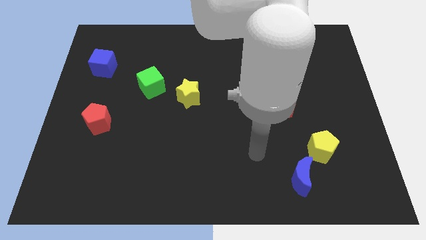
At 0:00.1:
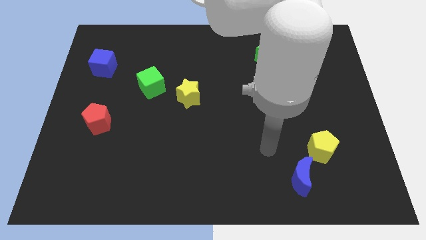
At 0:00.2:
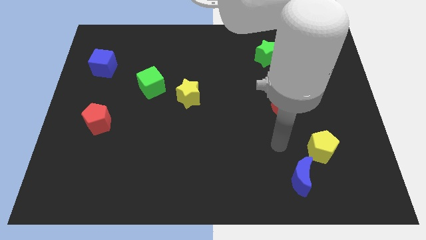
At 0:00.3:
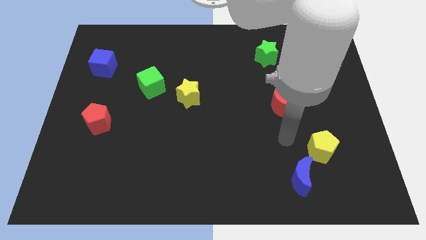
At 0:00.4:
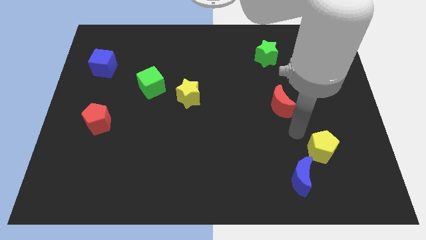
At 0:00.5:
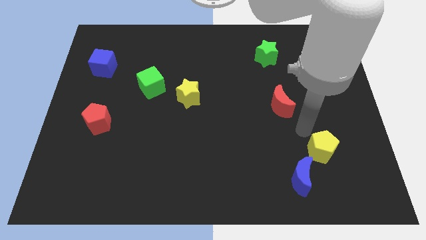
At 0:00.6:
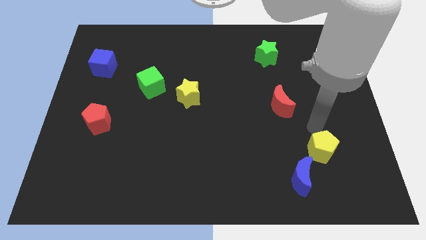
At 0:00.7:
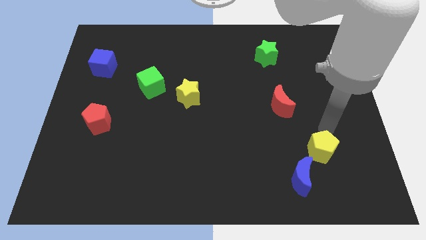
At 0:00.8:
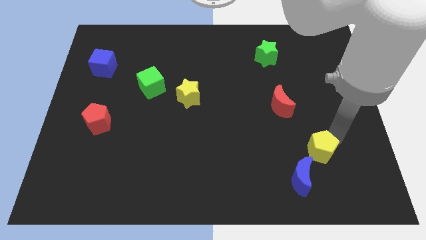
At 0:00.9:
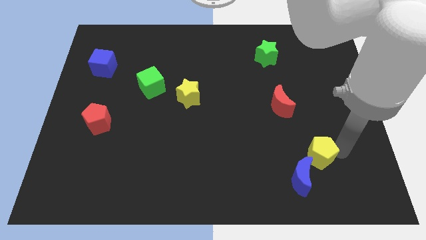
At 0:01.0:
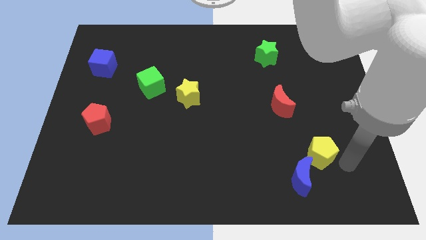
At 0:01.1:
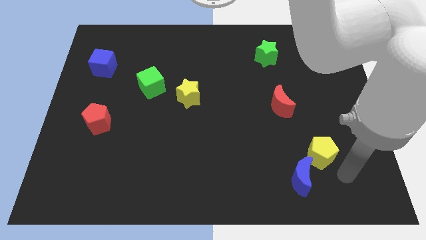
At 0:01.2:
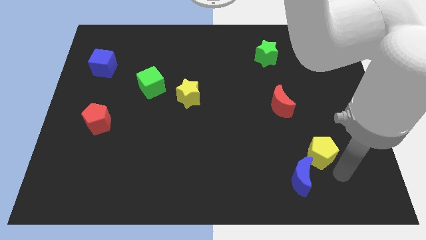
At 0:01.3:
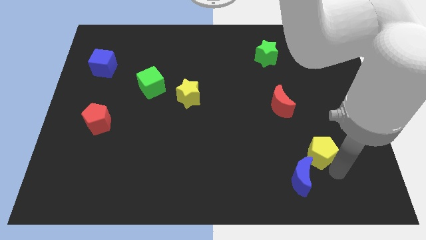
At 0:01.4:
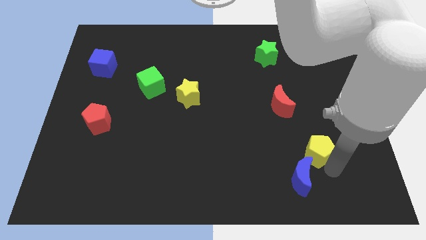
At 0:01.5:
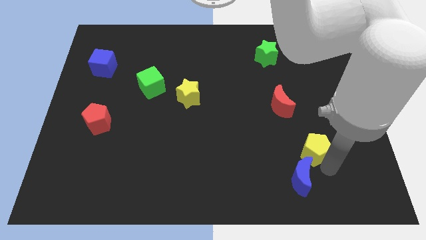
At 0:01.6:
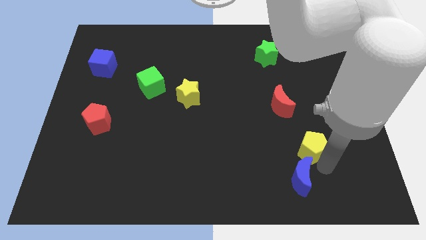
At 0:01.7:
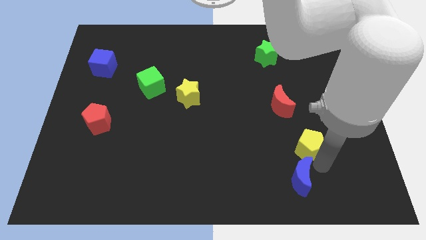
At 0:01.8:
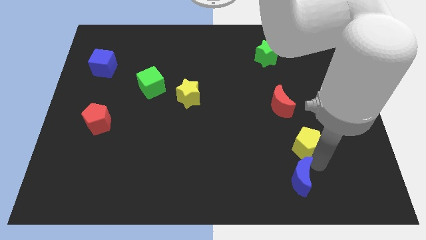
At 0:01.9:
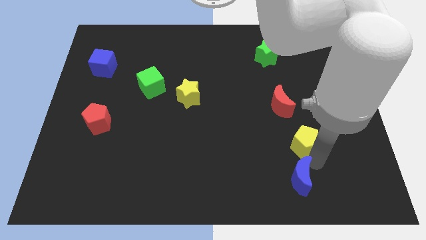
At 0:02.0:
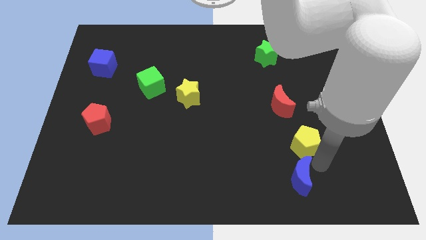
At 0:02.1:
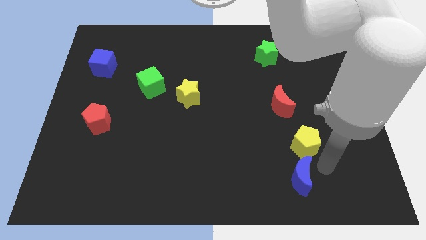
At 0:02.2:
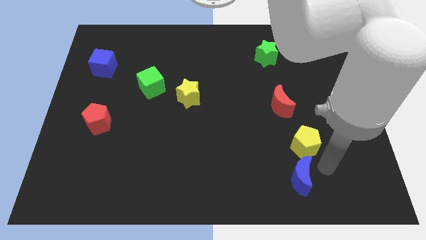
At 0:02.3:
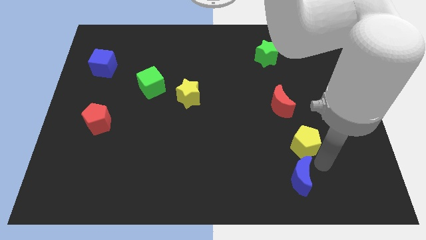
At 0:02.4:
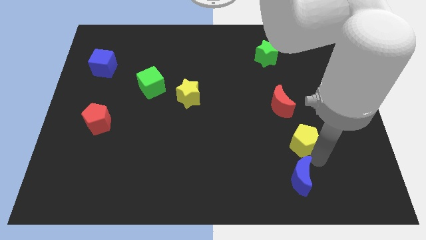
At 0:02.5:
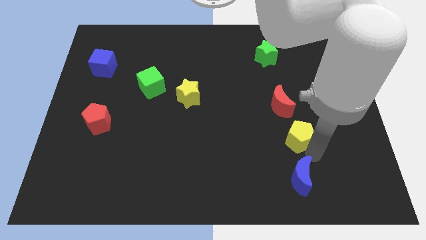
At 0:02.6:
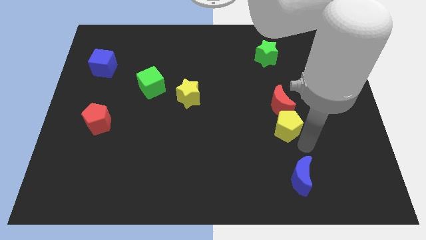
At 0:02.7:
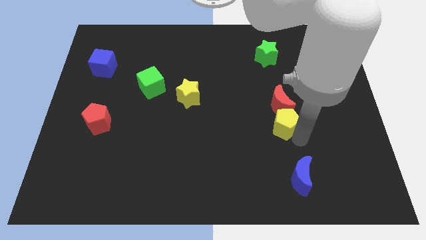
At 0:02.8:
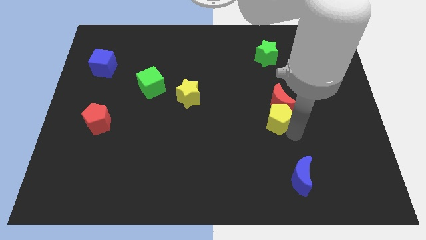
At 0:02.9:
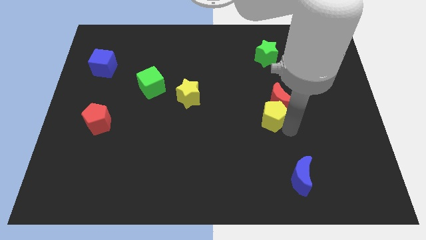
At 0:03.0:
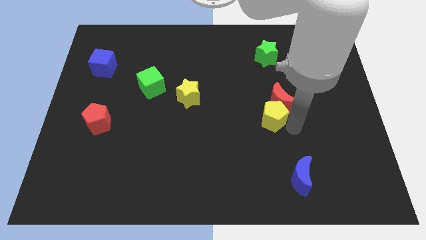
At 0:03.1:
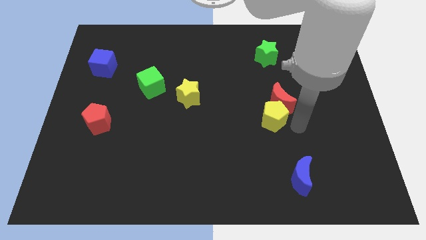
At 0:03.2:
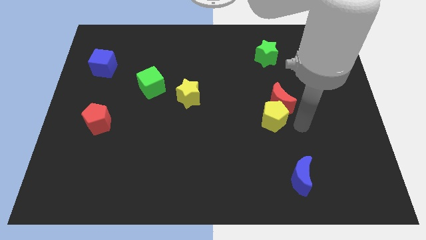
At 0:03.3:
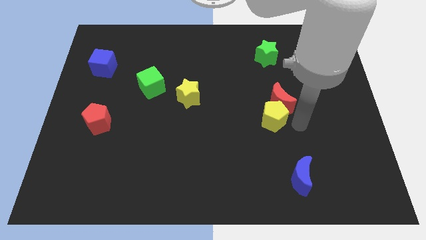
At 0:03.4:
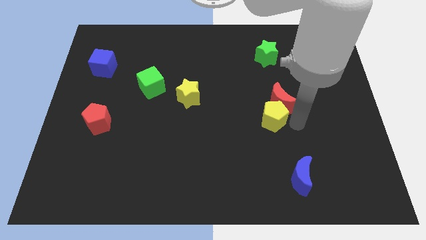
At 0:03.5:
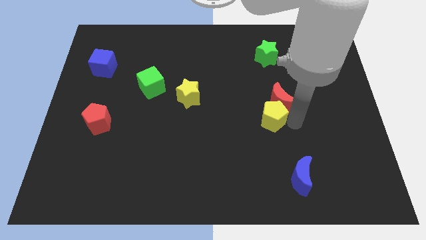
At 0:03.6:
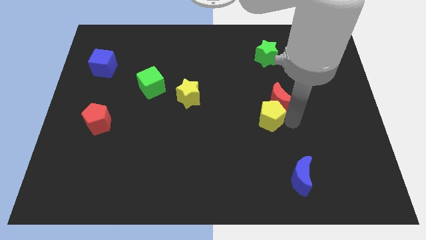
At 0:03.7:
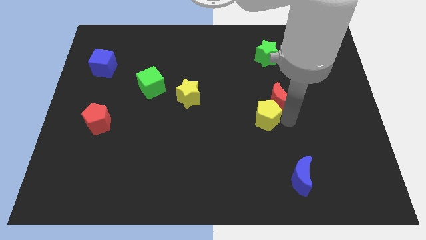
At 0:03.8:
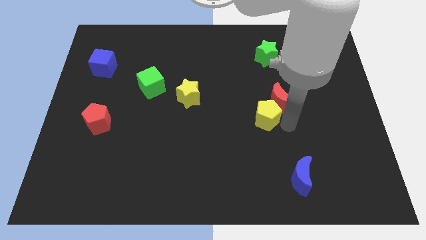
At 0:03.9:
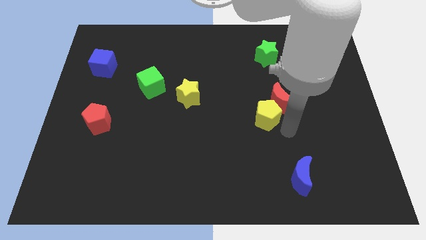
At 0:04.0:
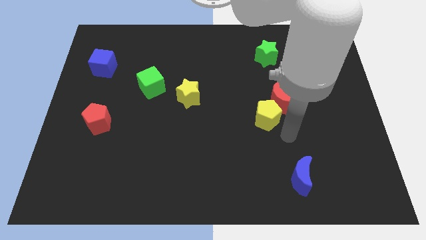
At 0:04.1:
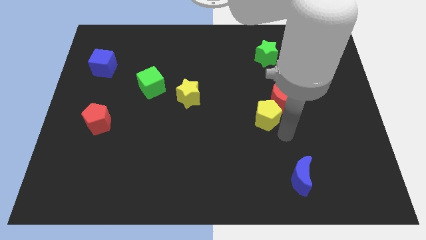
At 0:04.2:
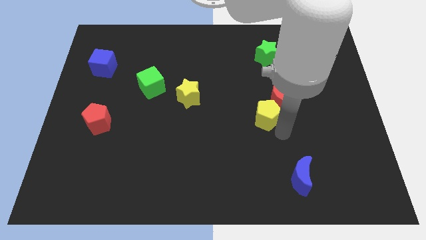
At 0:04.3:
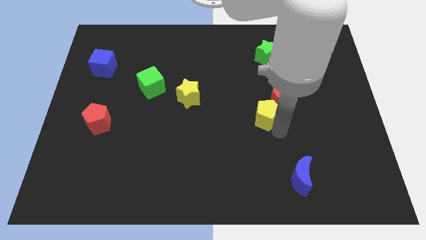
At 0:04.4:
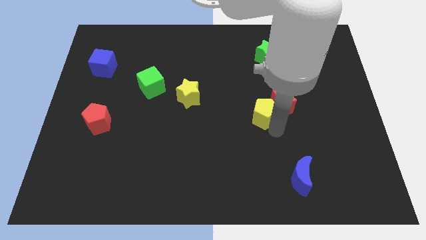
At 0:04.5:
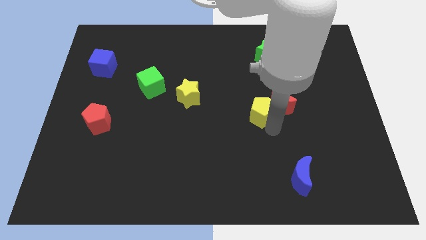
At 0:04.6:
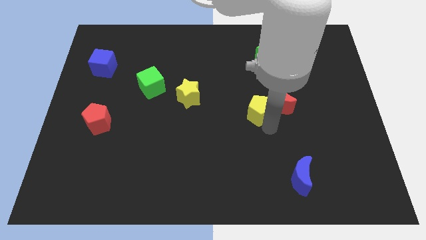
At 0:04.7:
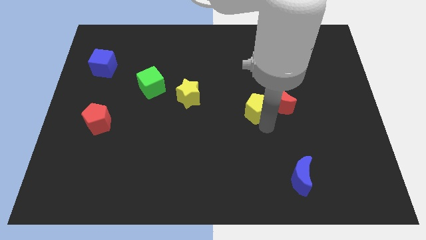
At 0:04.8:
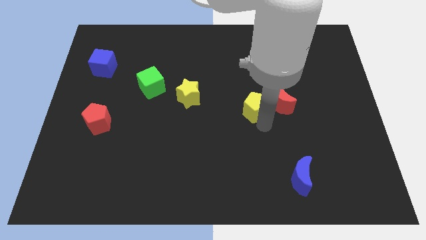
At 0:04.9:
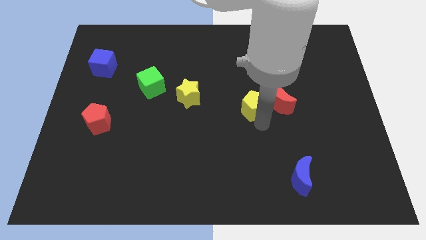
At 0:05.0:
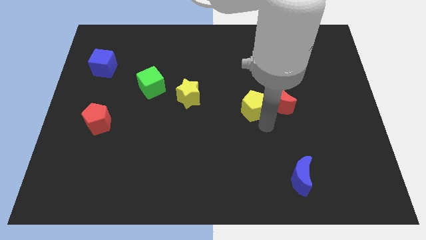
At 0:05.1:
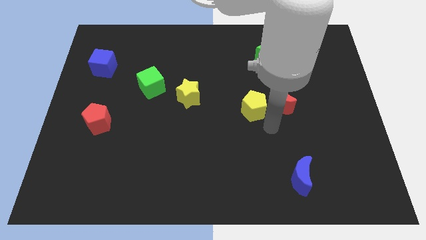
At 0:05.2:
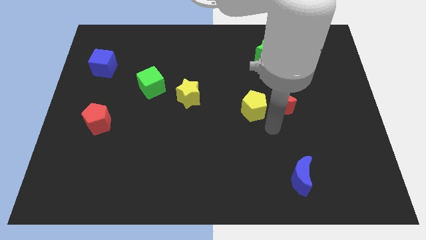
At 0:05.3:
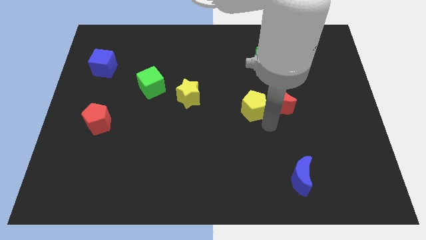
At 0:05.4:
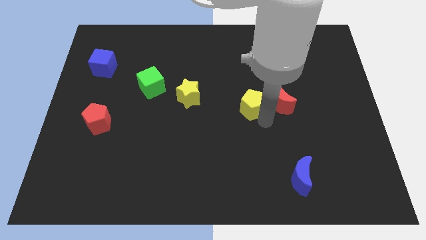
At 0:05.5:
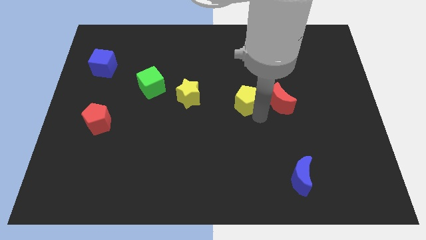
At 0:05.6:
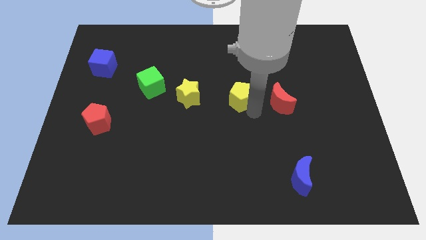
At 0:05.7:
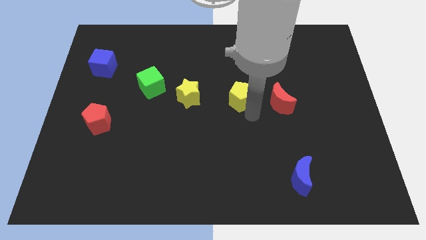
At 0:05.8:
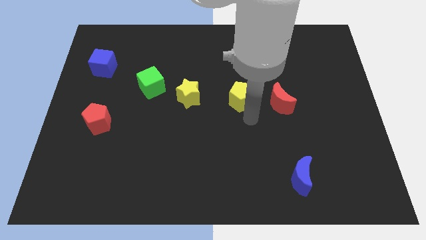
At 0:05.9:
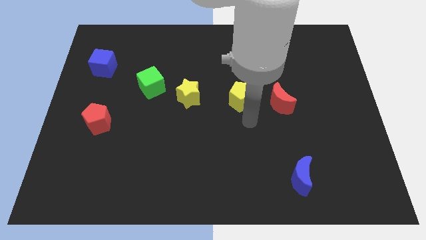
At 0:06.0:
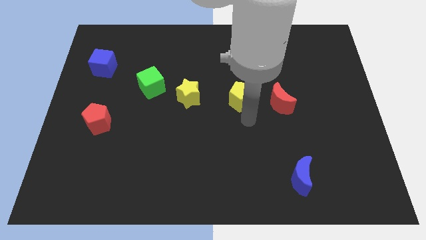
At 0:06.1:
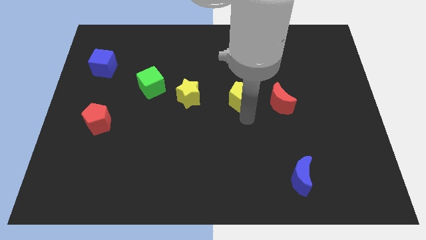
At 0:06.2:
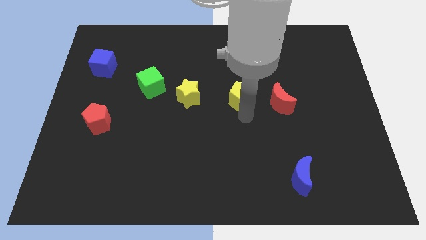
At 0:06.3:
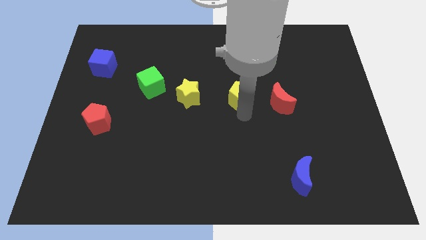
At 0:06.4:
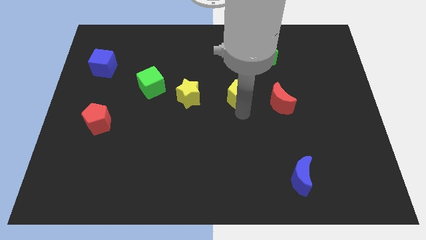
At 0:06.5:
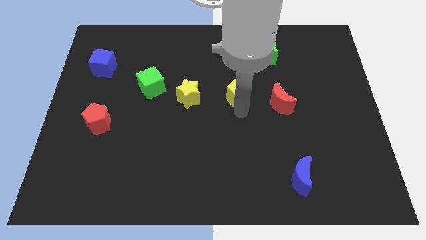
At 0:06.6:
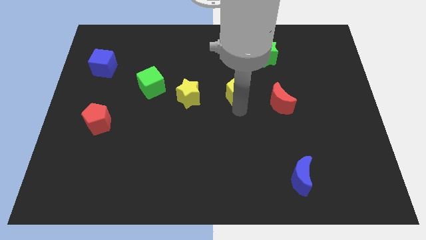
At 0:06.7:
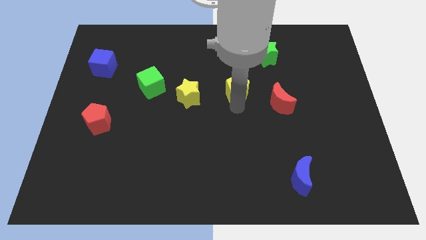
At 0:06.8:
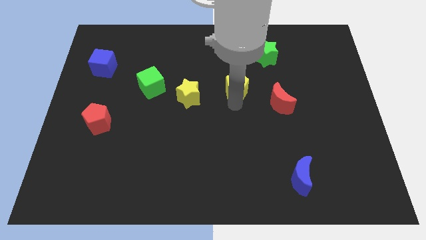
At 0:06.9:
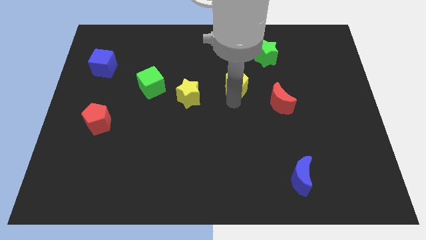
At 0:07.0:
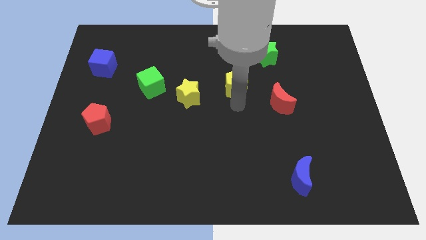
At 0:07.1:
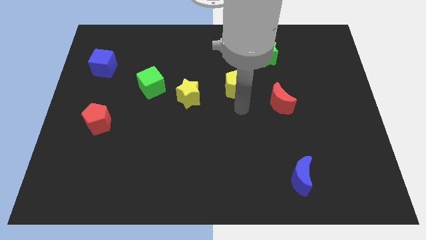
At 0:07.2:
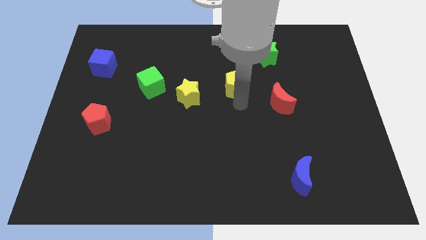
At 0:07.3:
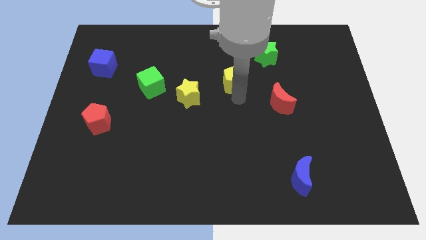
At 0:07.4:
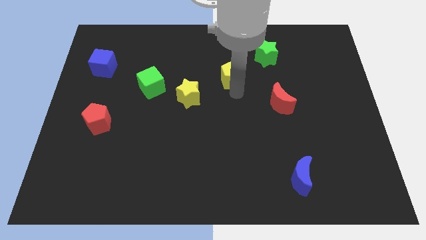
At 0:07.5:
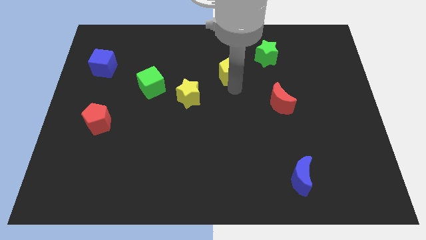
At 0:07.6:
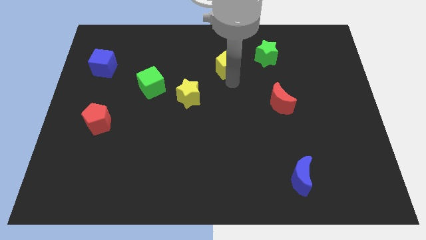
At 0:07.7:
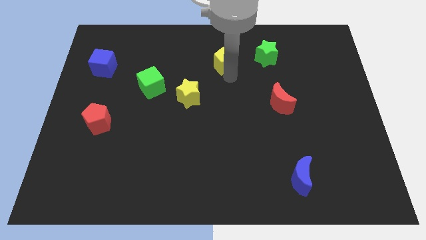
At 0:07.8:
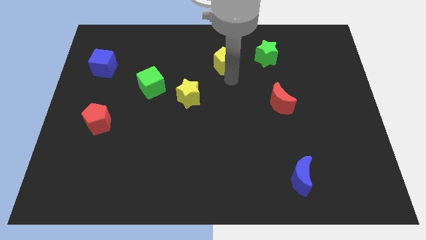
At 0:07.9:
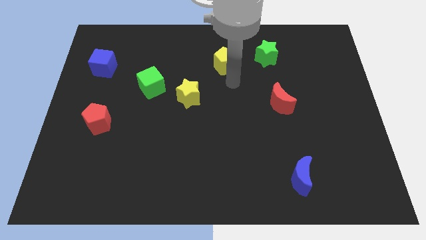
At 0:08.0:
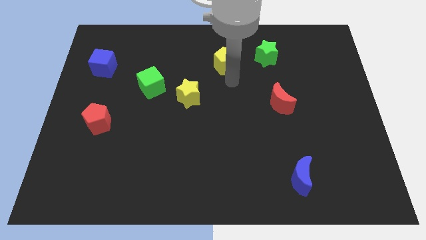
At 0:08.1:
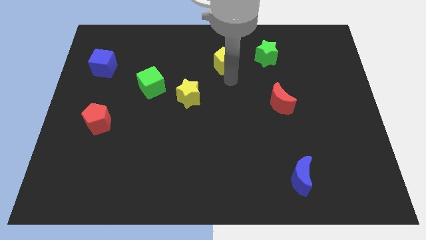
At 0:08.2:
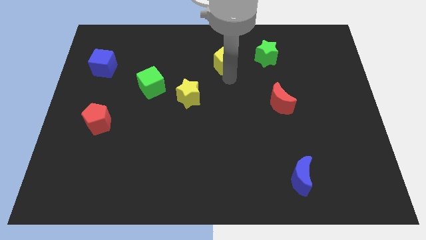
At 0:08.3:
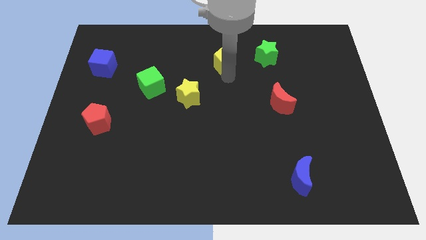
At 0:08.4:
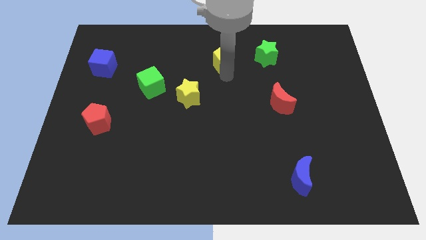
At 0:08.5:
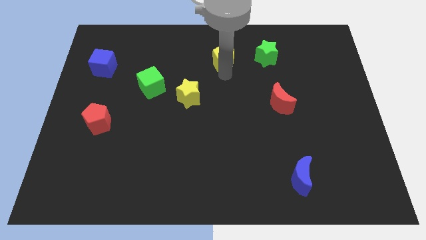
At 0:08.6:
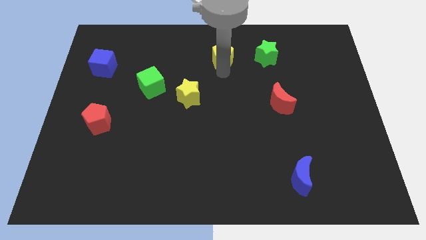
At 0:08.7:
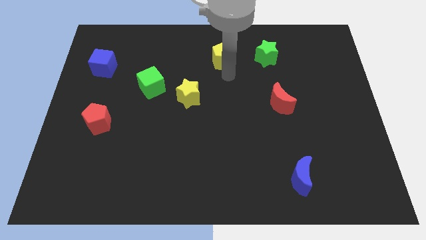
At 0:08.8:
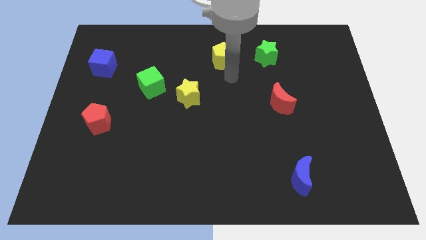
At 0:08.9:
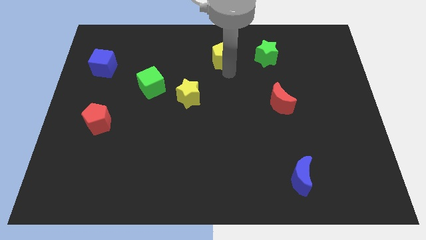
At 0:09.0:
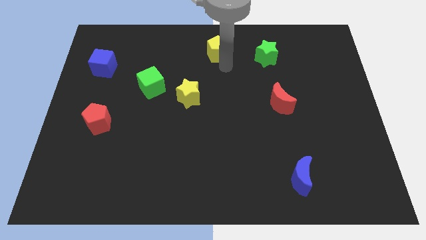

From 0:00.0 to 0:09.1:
push the yellow pentagon to the top
